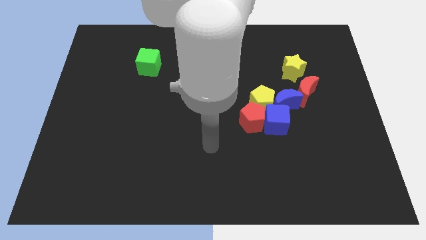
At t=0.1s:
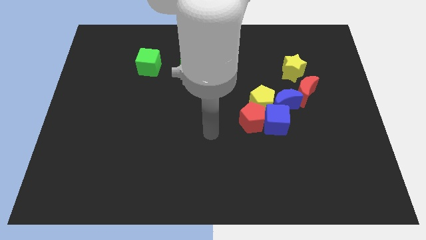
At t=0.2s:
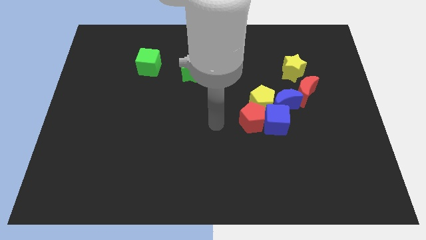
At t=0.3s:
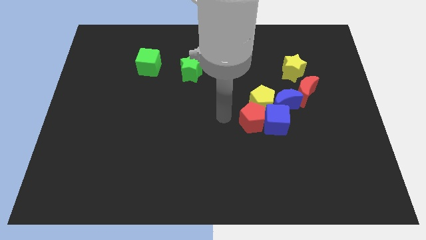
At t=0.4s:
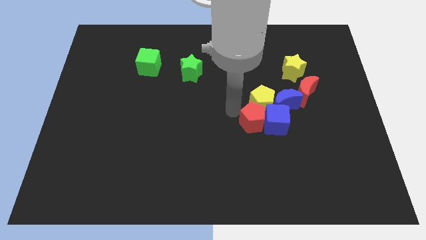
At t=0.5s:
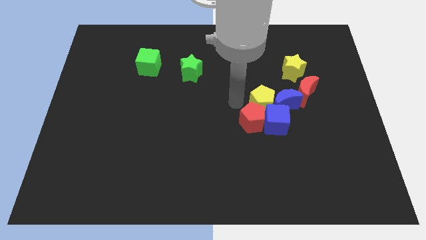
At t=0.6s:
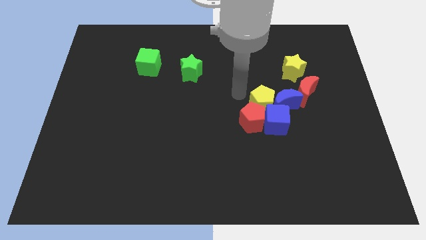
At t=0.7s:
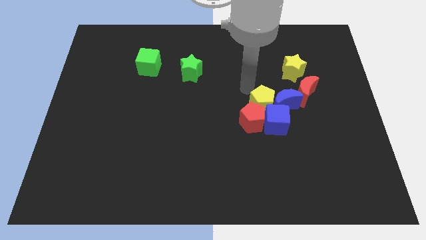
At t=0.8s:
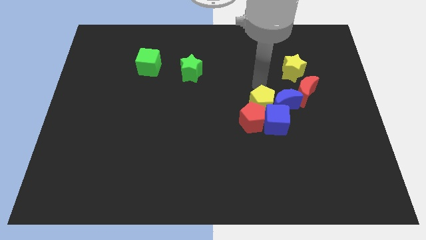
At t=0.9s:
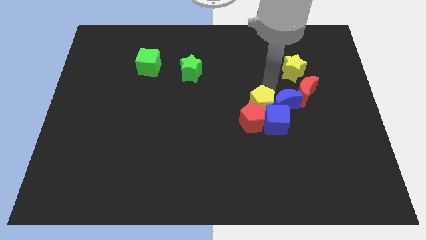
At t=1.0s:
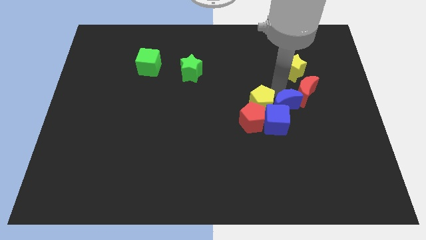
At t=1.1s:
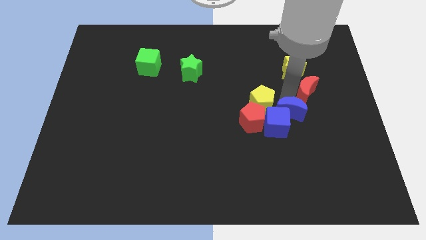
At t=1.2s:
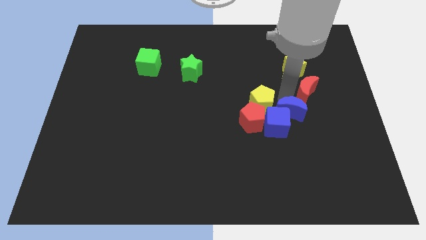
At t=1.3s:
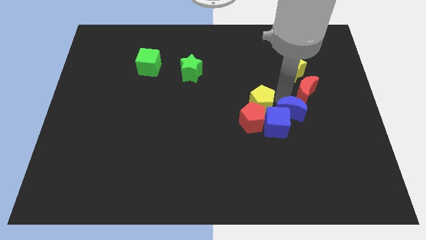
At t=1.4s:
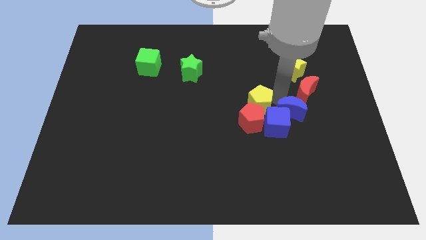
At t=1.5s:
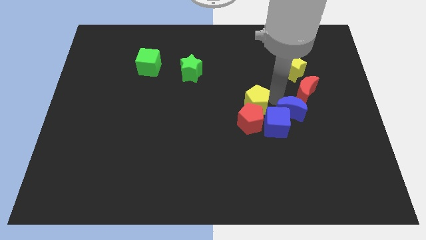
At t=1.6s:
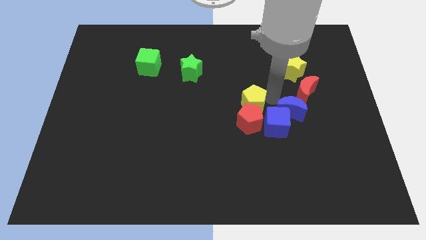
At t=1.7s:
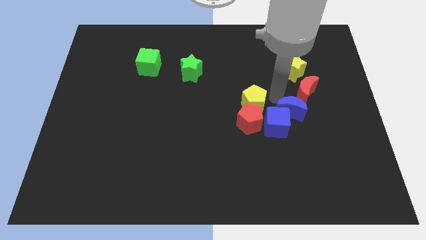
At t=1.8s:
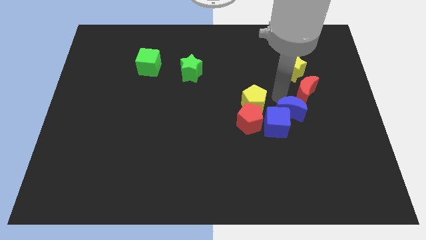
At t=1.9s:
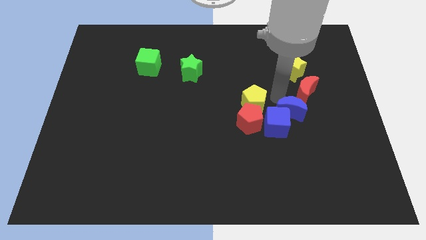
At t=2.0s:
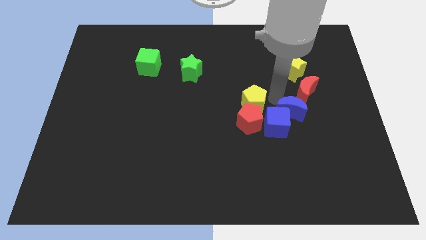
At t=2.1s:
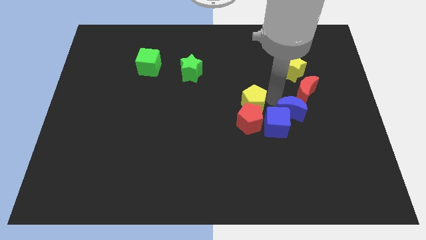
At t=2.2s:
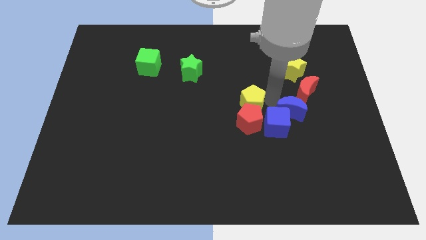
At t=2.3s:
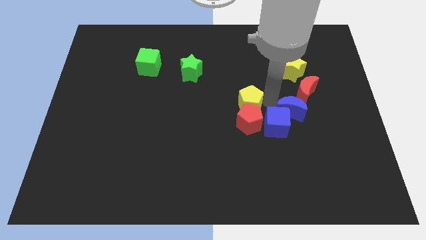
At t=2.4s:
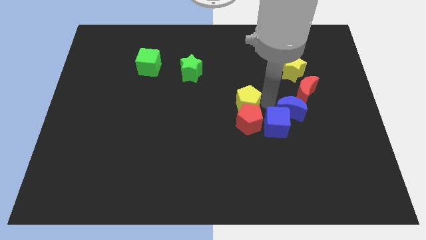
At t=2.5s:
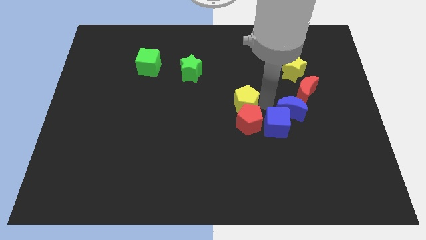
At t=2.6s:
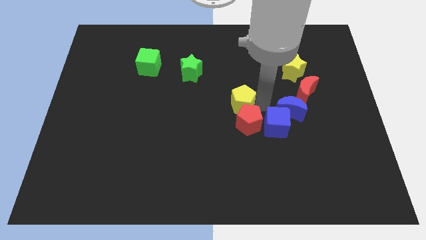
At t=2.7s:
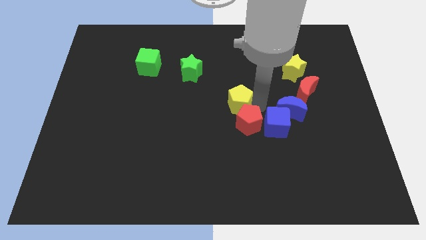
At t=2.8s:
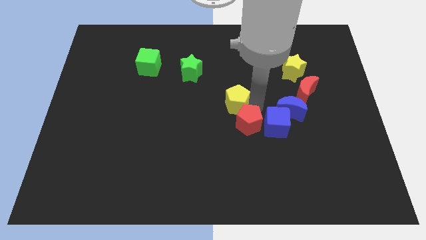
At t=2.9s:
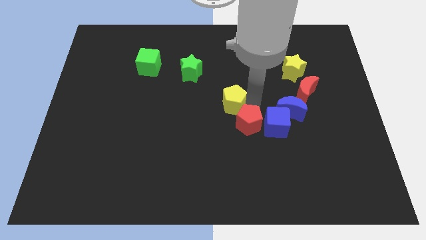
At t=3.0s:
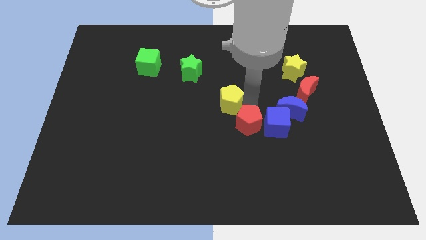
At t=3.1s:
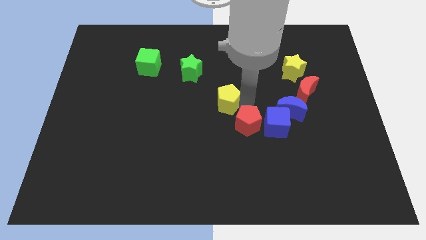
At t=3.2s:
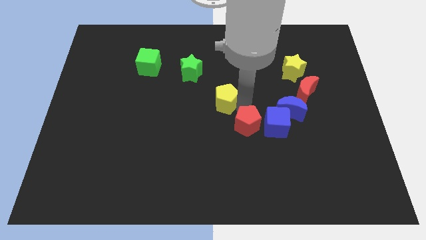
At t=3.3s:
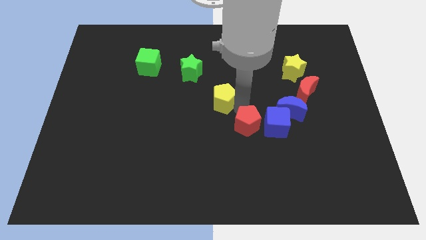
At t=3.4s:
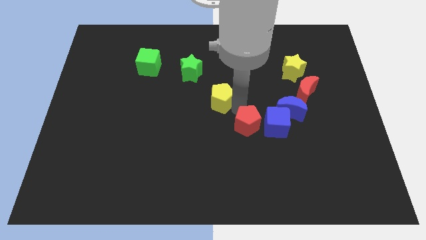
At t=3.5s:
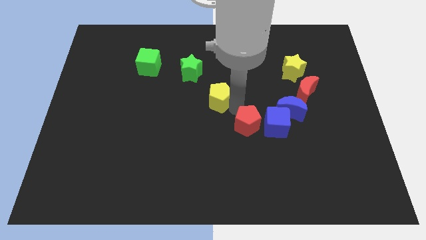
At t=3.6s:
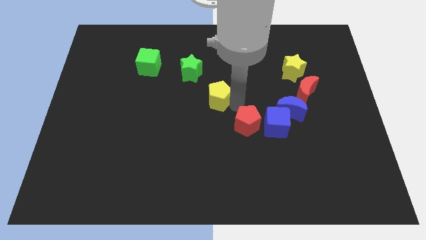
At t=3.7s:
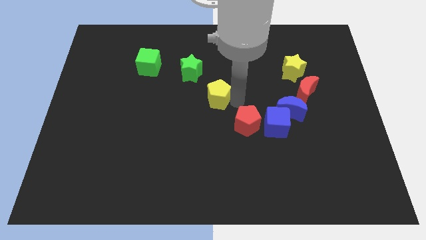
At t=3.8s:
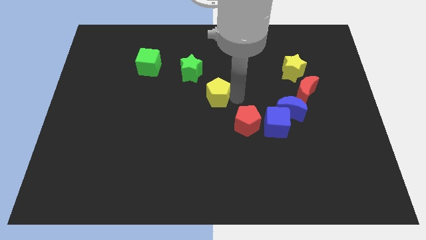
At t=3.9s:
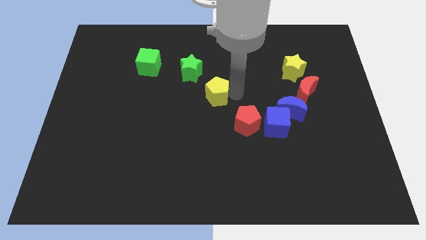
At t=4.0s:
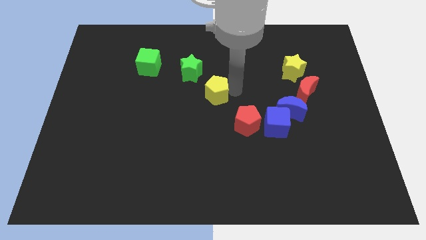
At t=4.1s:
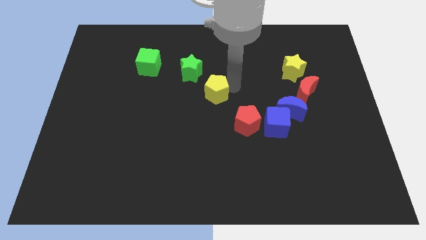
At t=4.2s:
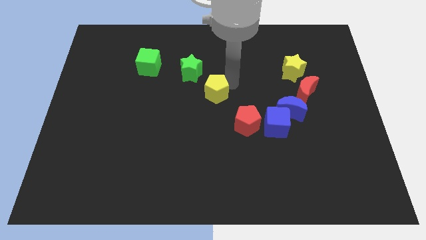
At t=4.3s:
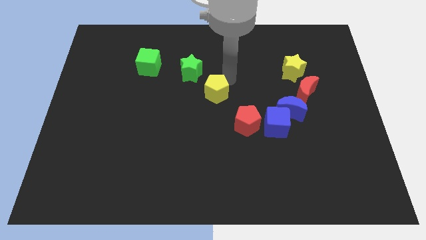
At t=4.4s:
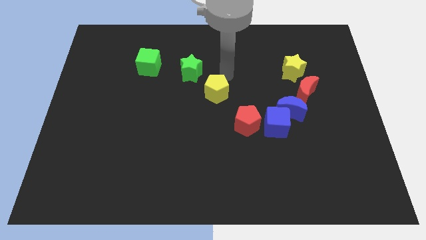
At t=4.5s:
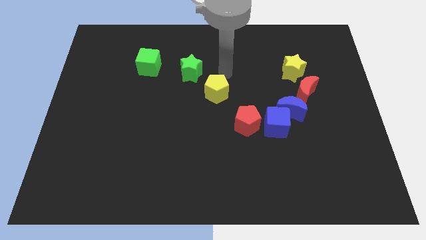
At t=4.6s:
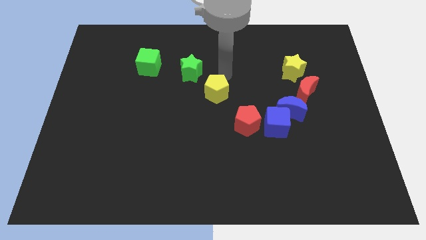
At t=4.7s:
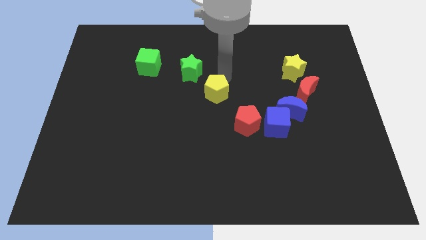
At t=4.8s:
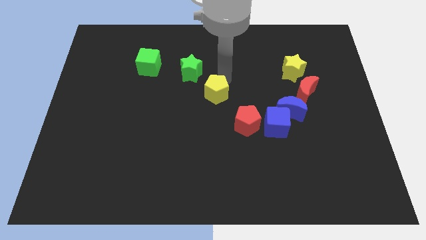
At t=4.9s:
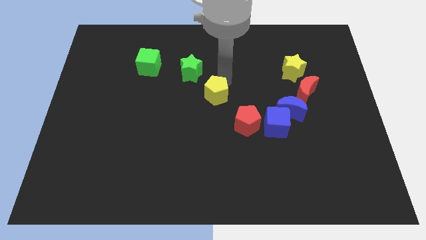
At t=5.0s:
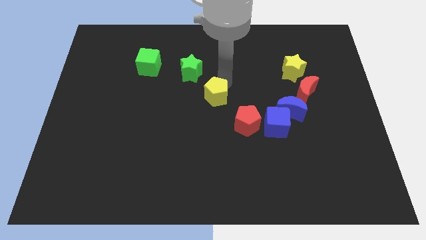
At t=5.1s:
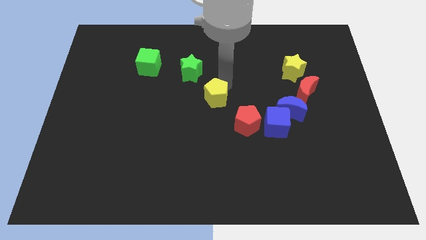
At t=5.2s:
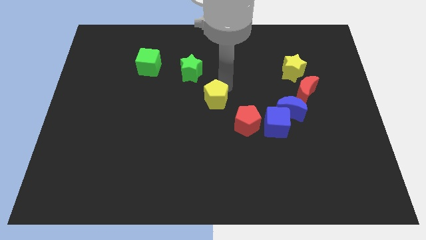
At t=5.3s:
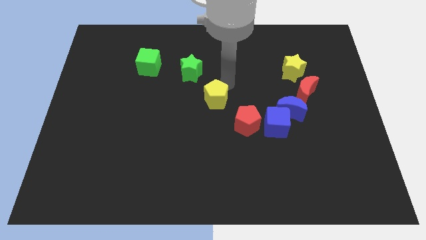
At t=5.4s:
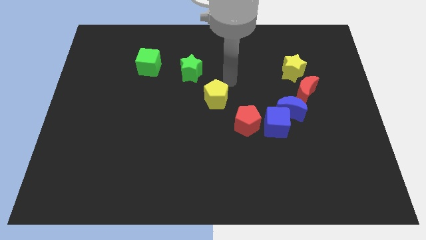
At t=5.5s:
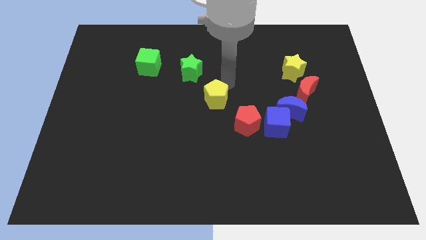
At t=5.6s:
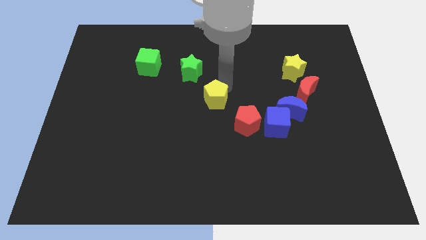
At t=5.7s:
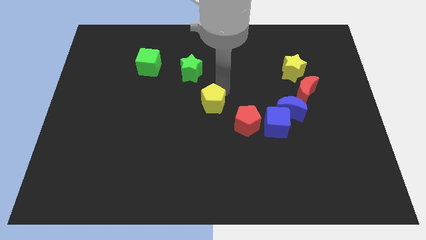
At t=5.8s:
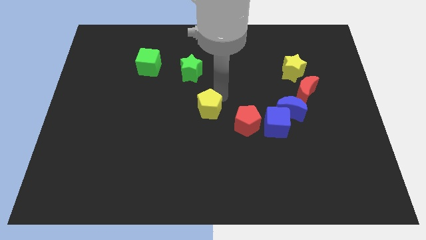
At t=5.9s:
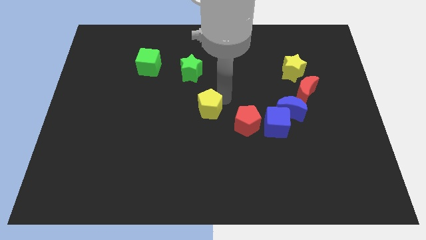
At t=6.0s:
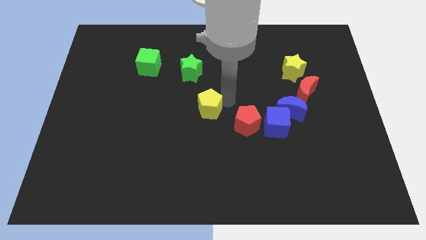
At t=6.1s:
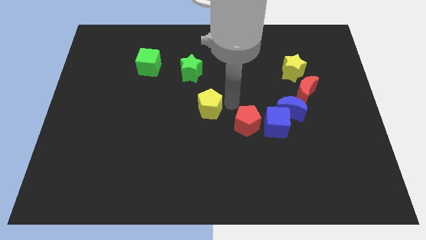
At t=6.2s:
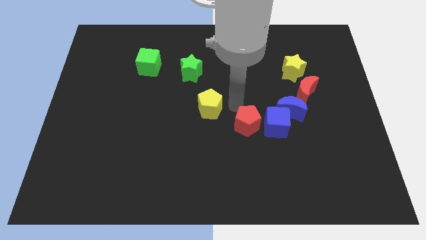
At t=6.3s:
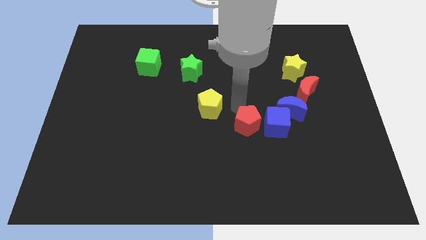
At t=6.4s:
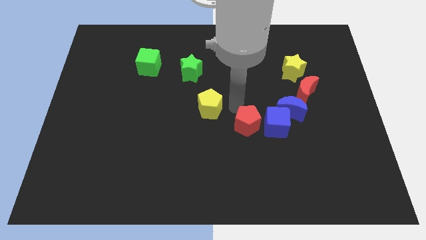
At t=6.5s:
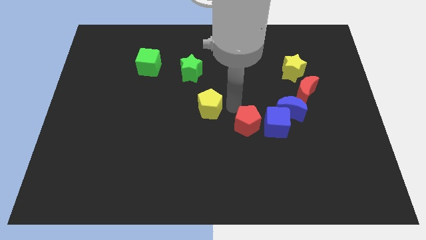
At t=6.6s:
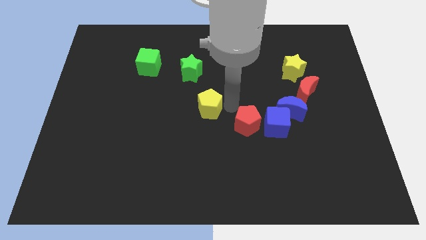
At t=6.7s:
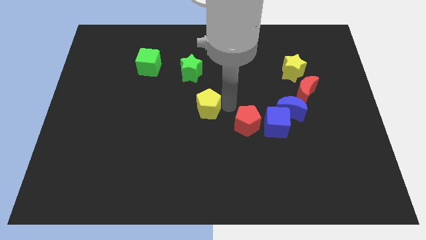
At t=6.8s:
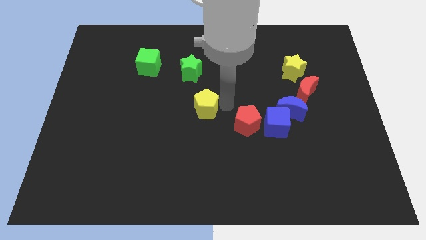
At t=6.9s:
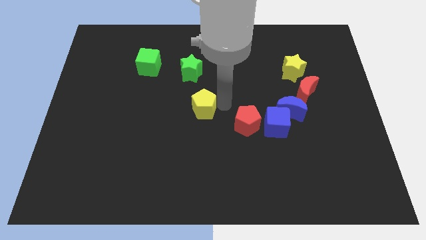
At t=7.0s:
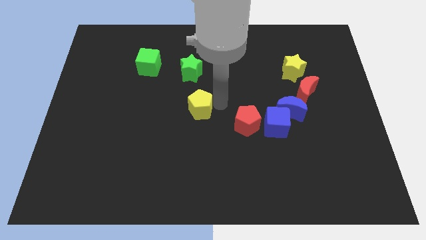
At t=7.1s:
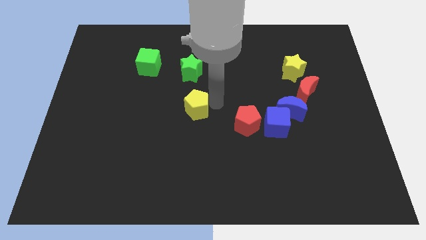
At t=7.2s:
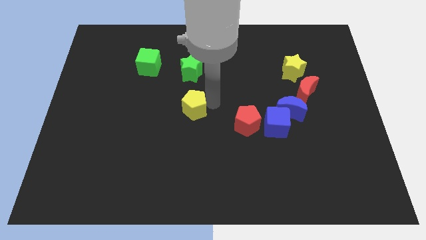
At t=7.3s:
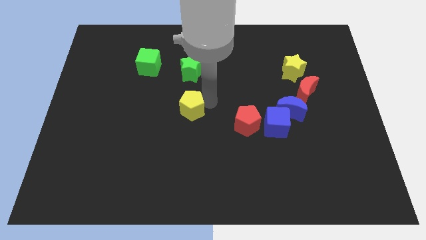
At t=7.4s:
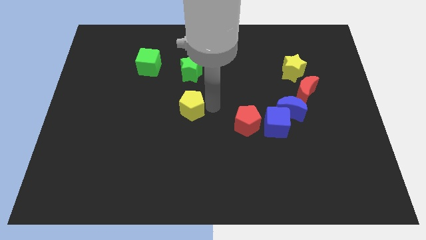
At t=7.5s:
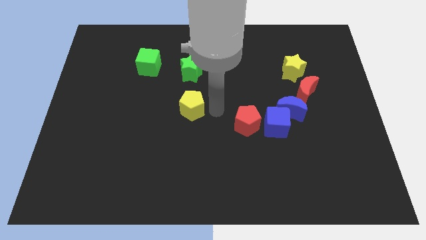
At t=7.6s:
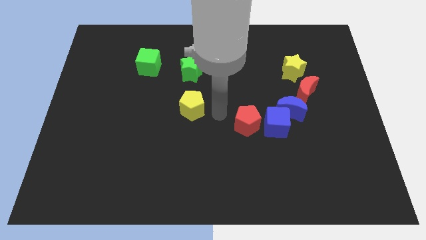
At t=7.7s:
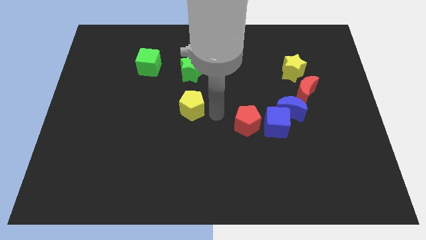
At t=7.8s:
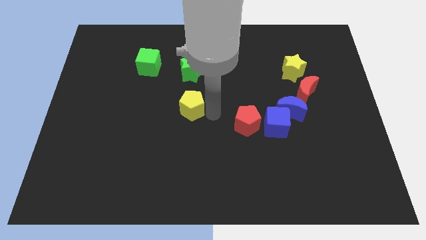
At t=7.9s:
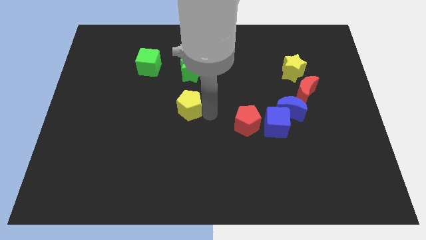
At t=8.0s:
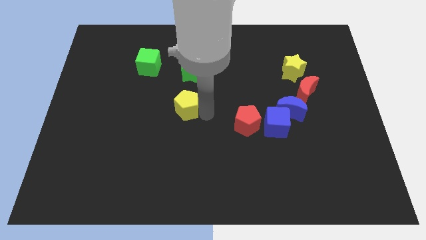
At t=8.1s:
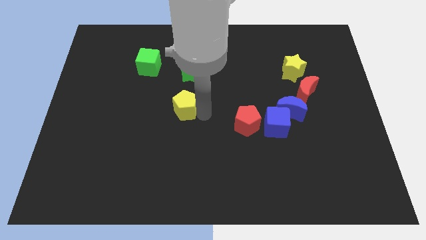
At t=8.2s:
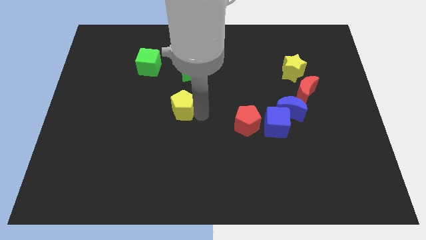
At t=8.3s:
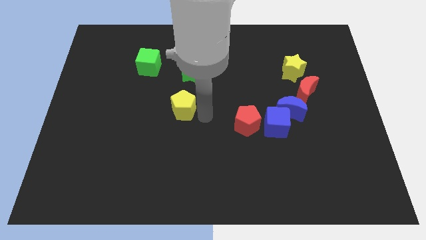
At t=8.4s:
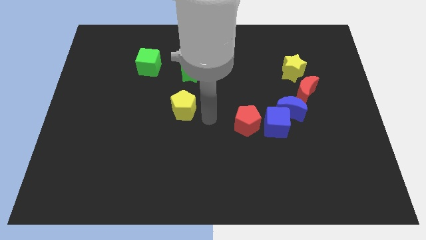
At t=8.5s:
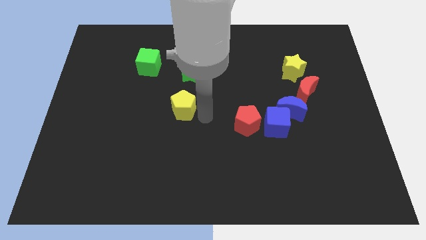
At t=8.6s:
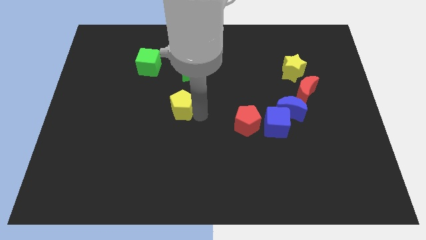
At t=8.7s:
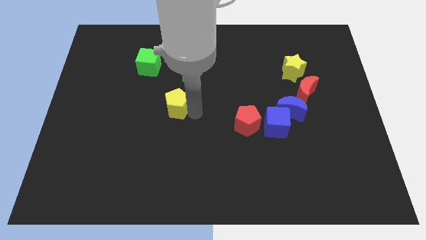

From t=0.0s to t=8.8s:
move the yellow pentagon to the left
